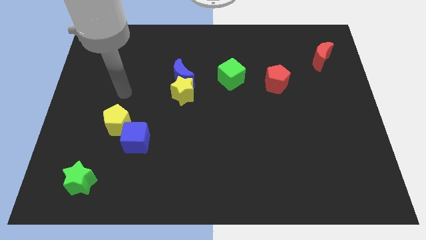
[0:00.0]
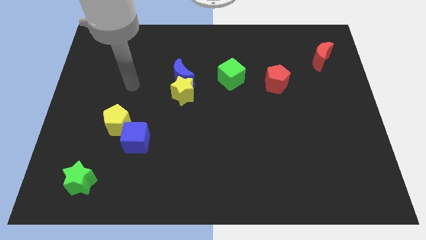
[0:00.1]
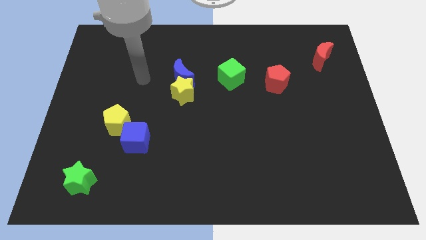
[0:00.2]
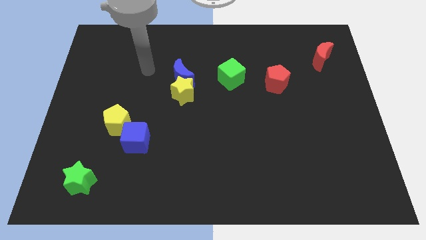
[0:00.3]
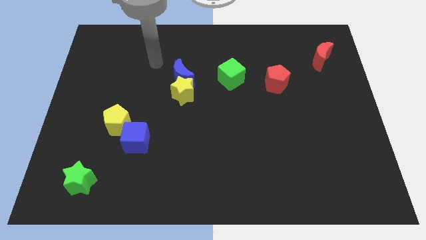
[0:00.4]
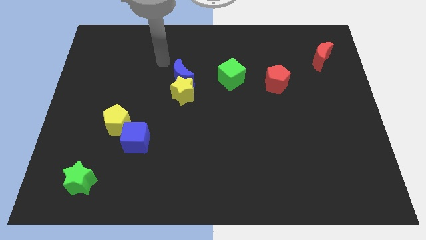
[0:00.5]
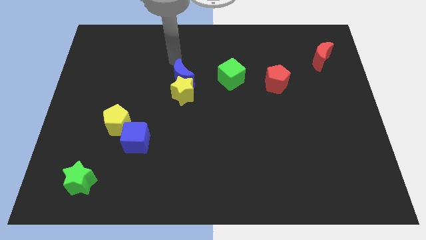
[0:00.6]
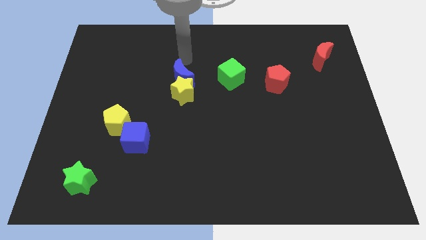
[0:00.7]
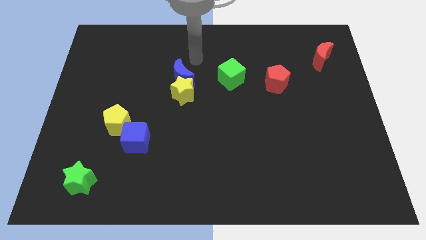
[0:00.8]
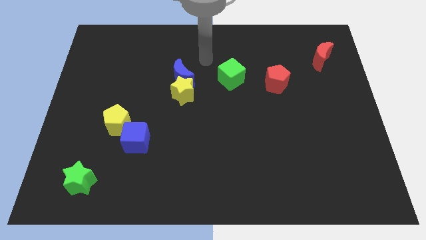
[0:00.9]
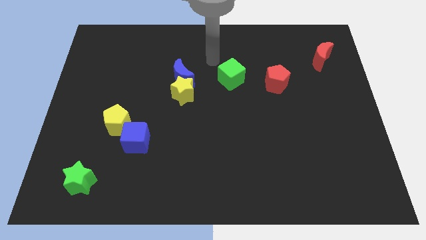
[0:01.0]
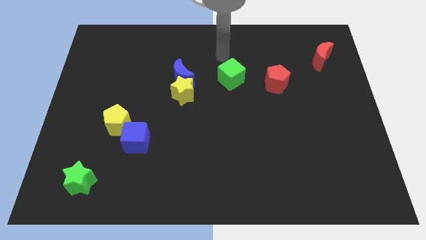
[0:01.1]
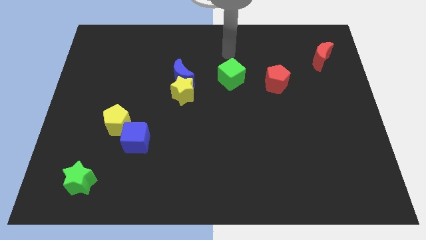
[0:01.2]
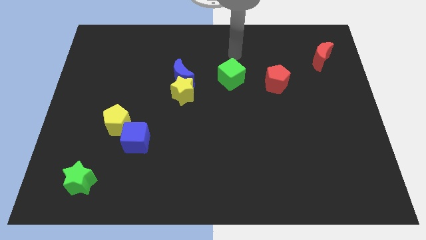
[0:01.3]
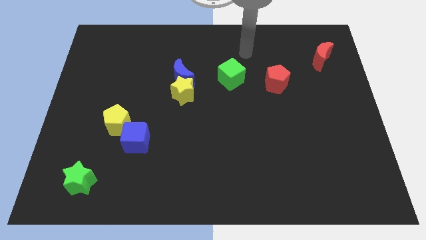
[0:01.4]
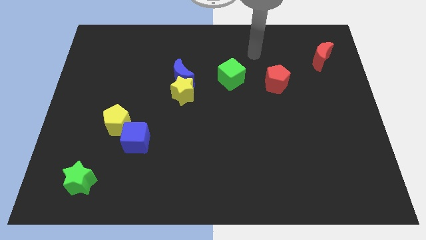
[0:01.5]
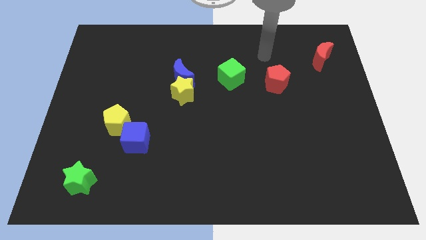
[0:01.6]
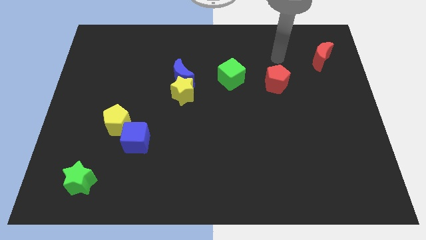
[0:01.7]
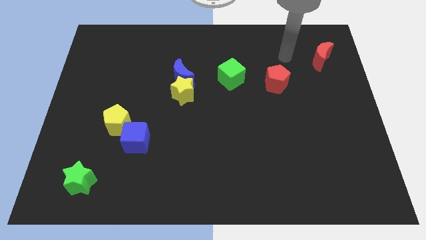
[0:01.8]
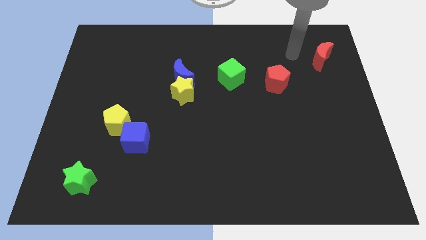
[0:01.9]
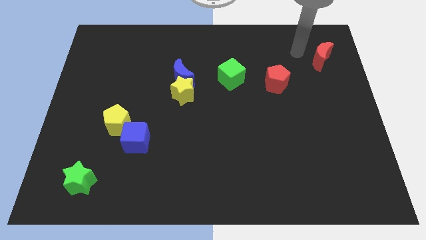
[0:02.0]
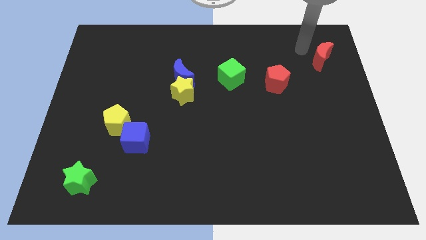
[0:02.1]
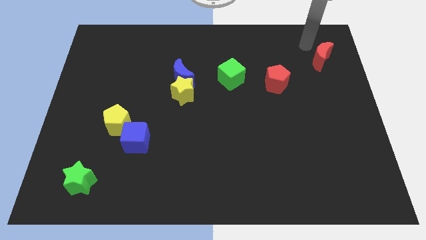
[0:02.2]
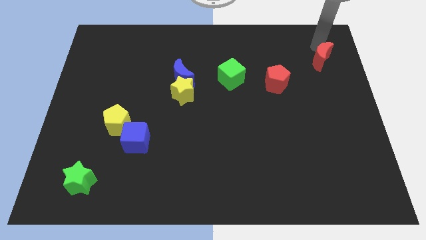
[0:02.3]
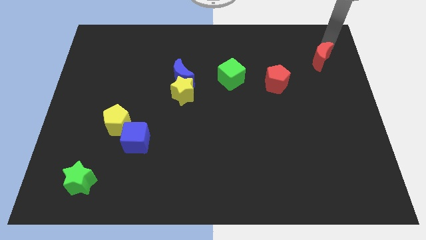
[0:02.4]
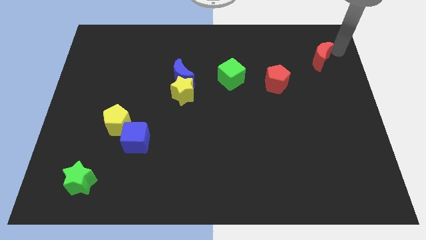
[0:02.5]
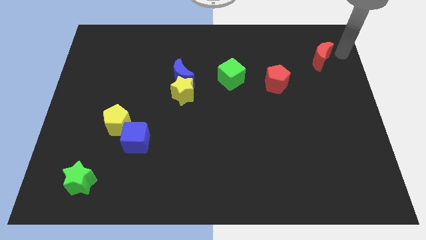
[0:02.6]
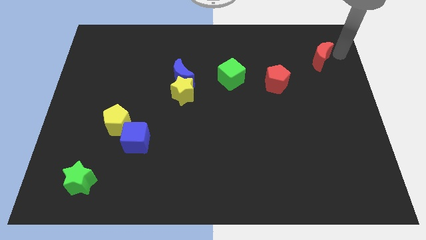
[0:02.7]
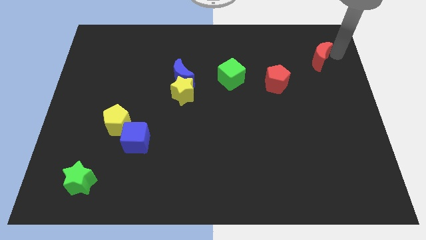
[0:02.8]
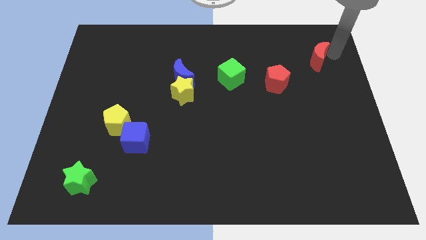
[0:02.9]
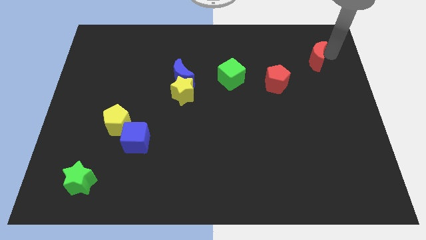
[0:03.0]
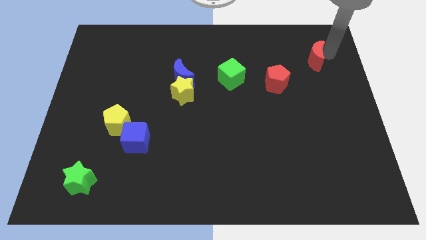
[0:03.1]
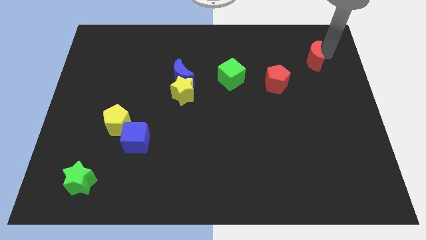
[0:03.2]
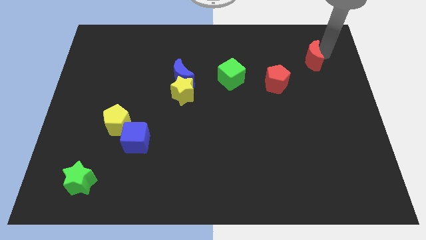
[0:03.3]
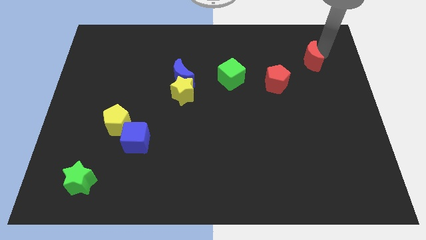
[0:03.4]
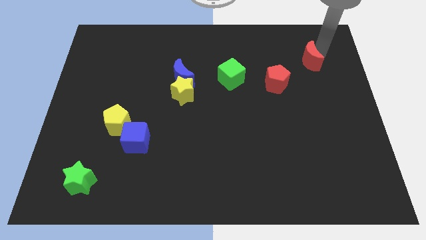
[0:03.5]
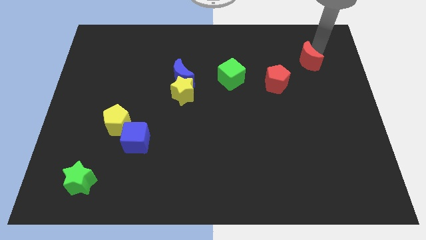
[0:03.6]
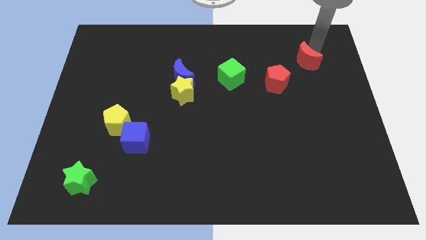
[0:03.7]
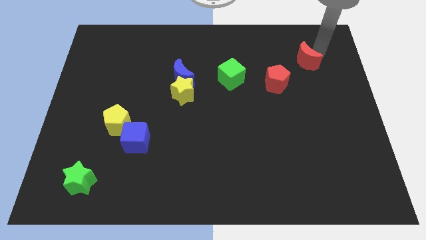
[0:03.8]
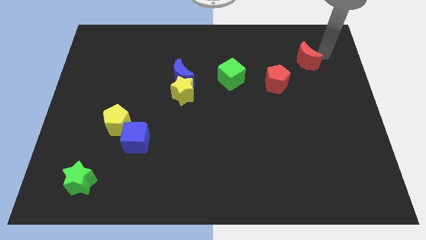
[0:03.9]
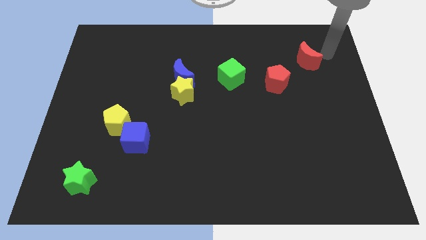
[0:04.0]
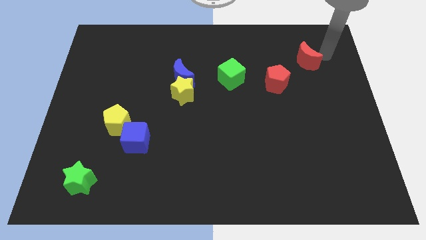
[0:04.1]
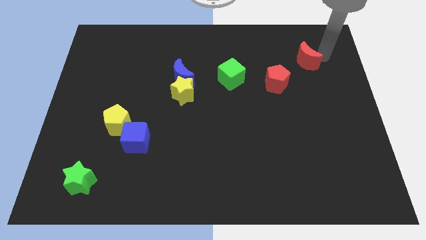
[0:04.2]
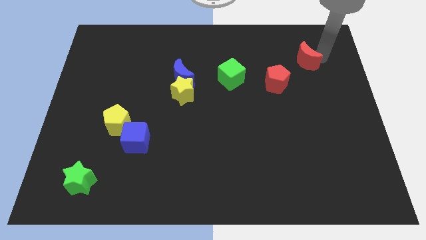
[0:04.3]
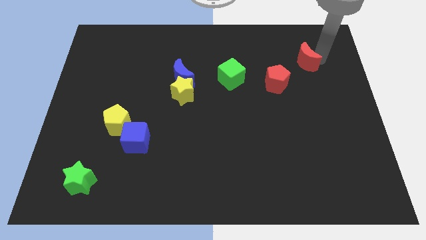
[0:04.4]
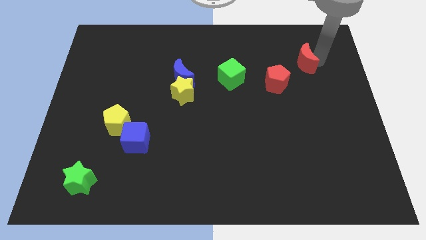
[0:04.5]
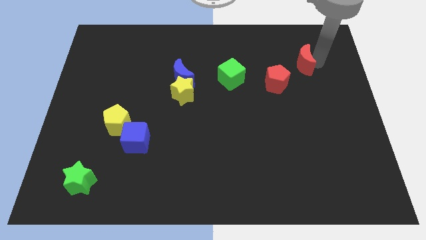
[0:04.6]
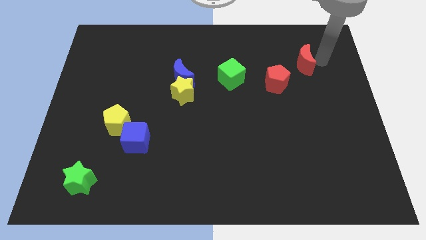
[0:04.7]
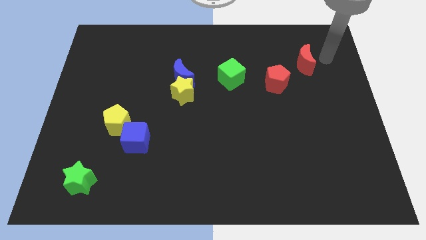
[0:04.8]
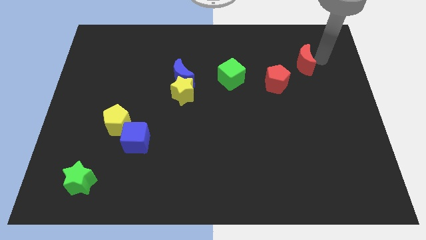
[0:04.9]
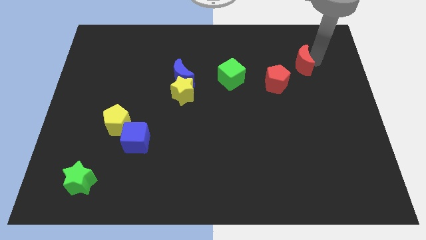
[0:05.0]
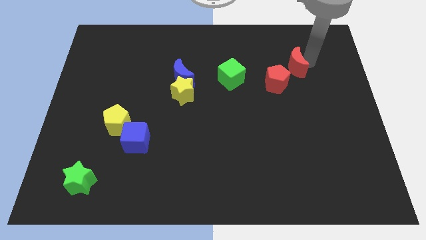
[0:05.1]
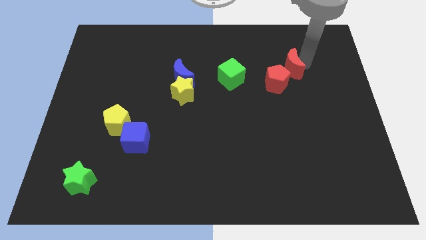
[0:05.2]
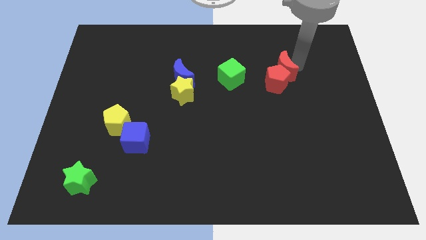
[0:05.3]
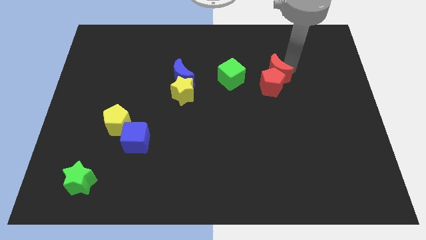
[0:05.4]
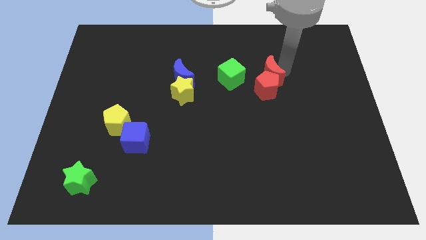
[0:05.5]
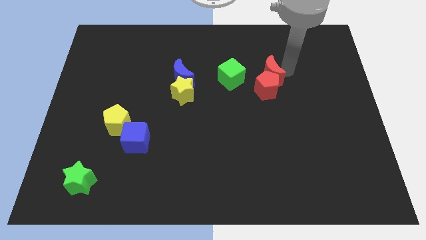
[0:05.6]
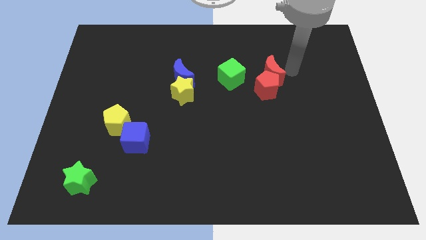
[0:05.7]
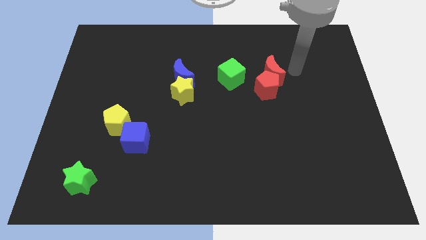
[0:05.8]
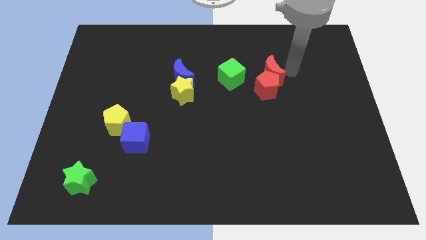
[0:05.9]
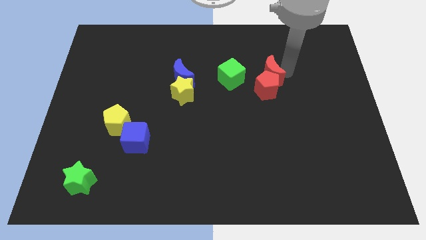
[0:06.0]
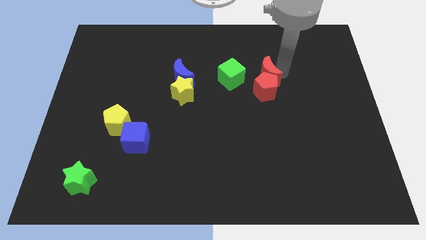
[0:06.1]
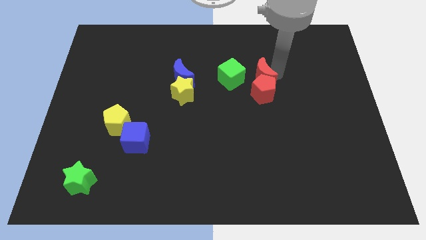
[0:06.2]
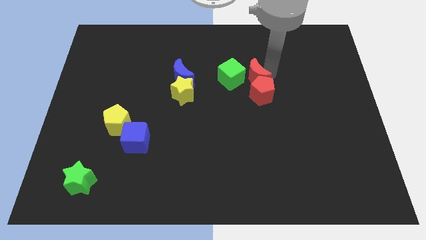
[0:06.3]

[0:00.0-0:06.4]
push the red moon diagonally down and to the right of the green cube
